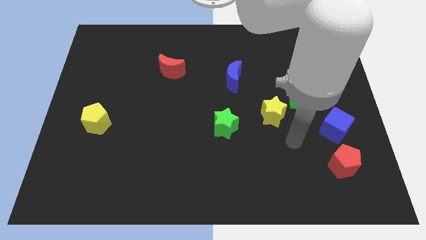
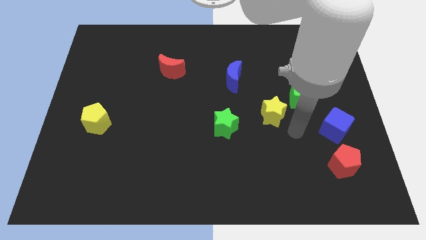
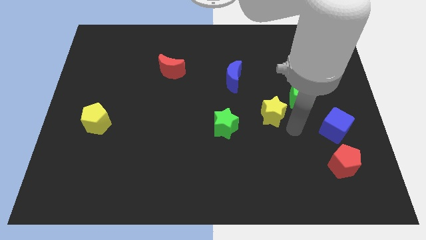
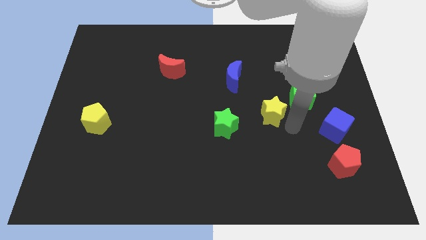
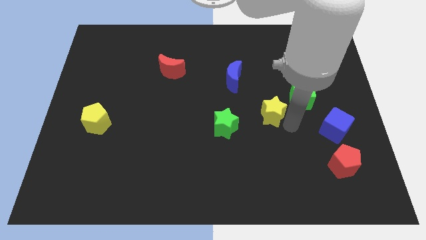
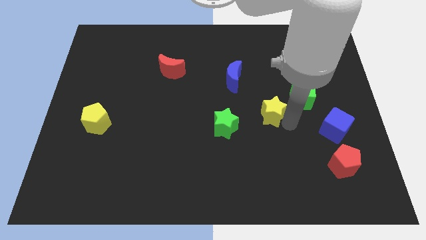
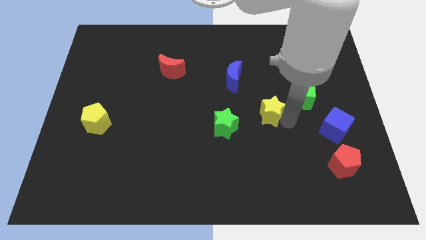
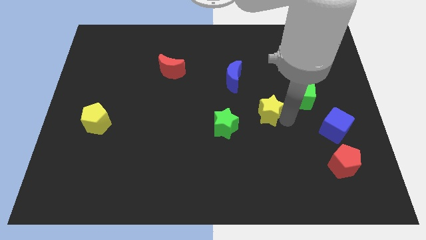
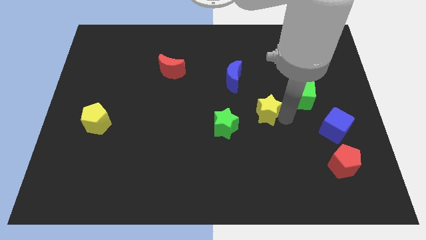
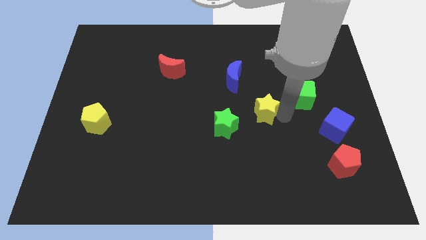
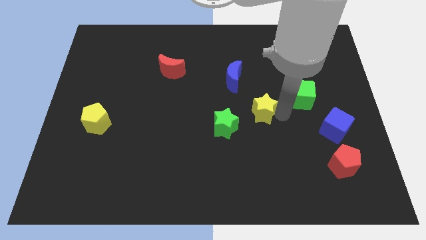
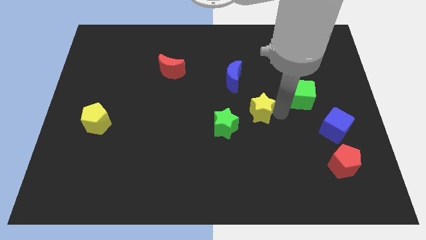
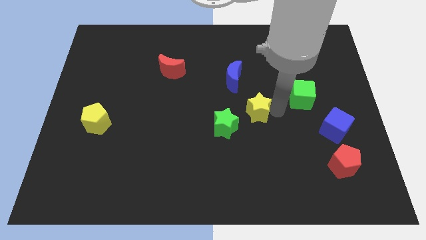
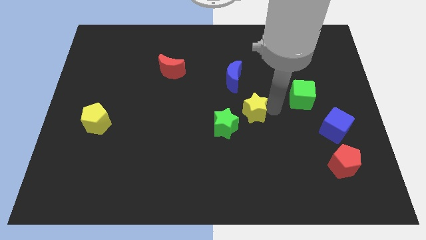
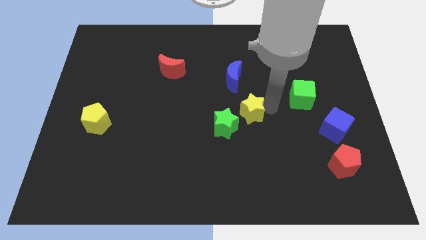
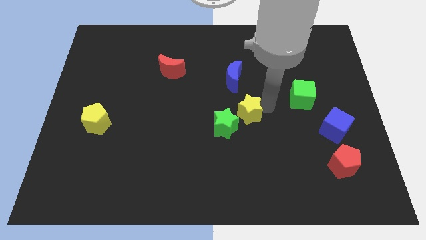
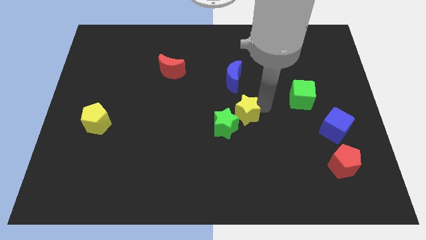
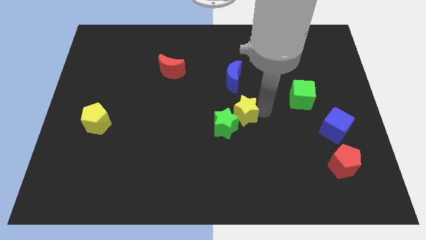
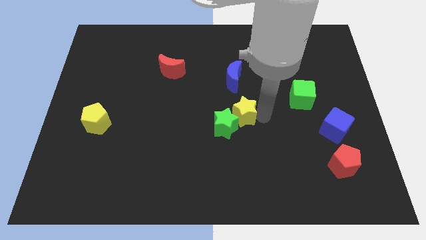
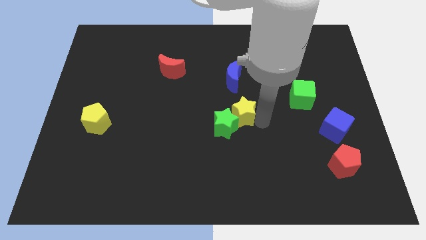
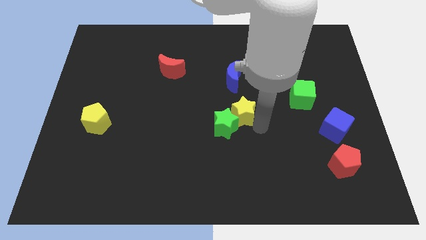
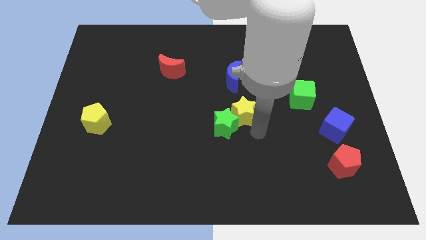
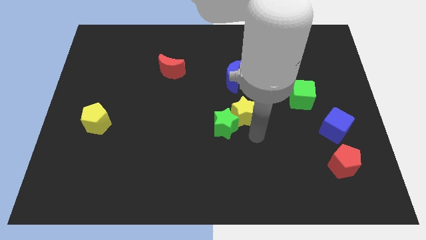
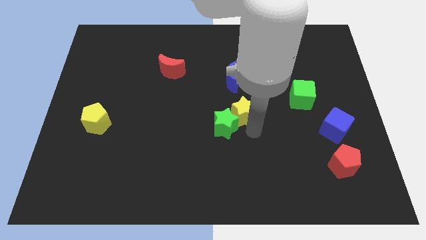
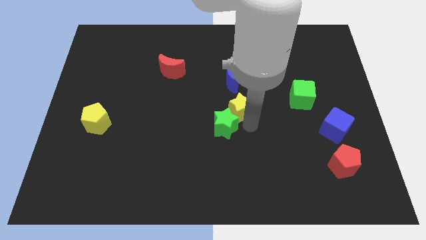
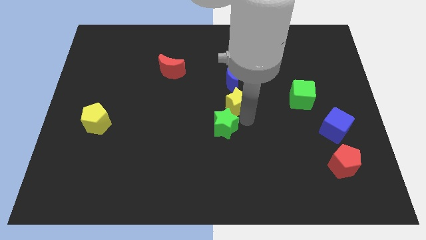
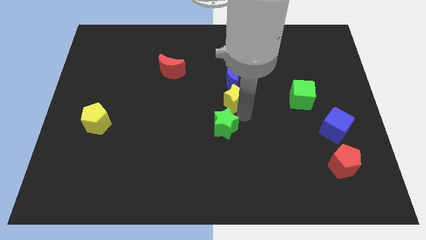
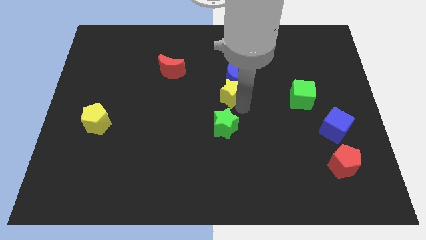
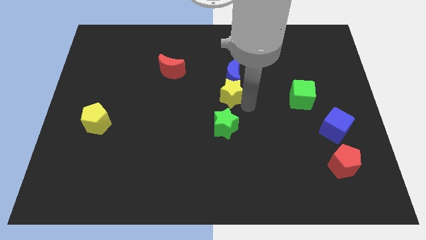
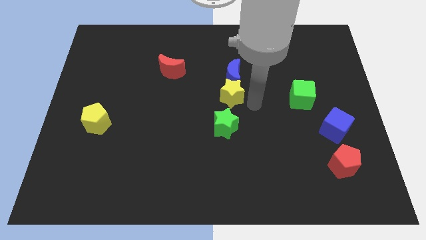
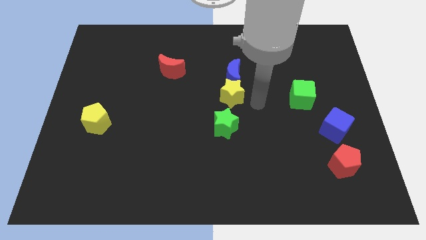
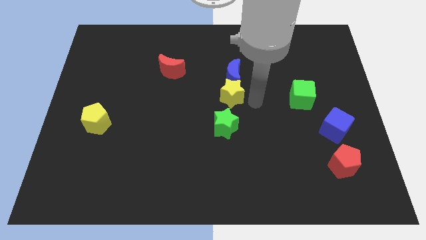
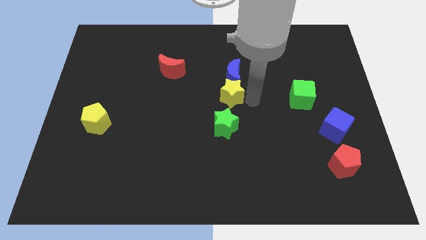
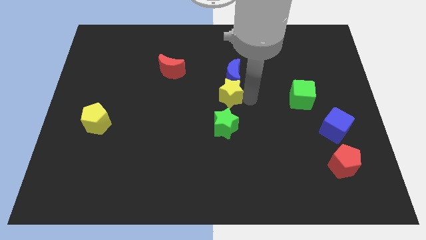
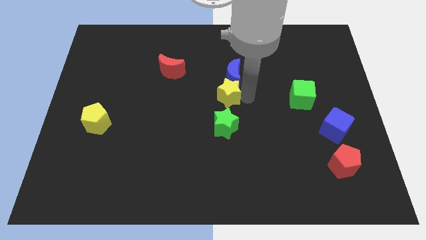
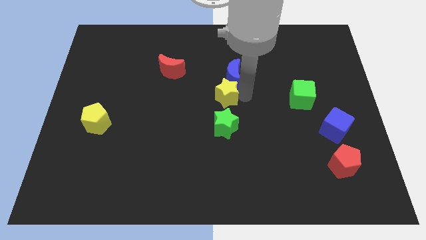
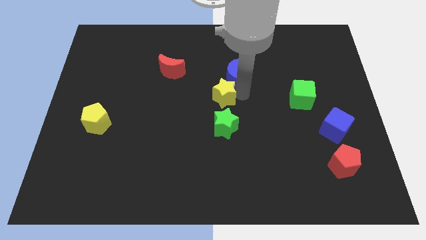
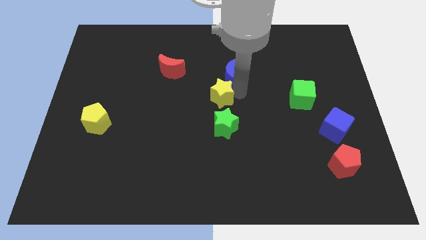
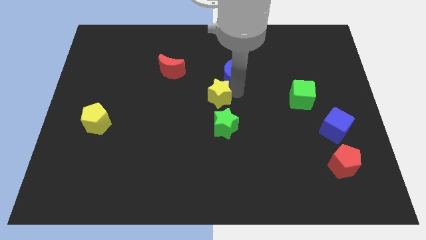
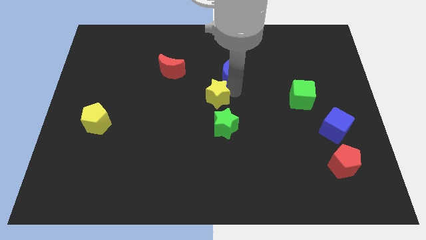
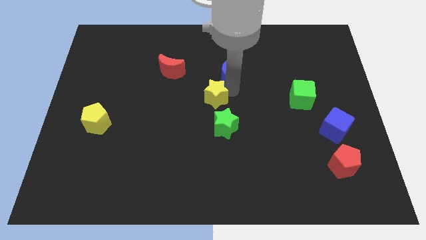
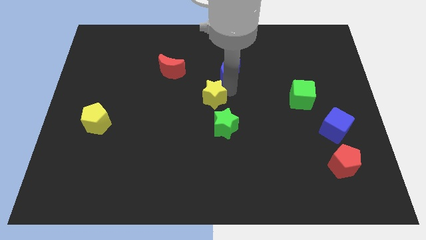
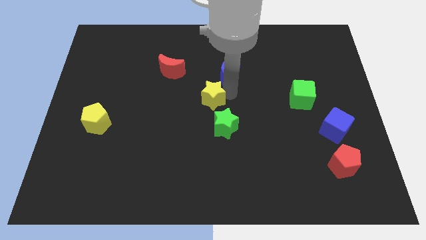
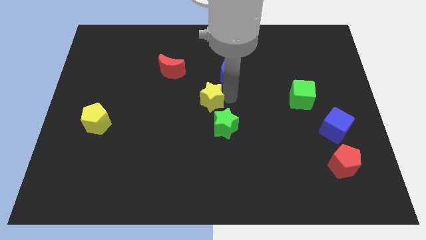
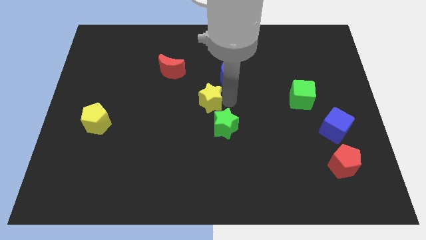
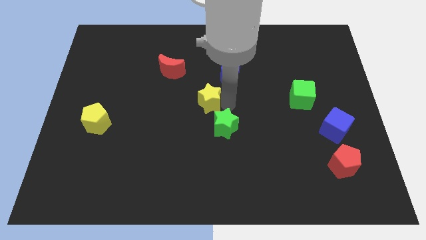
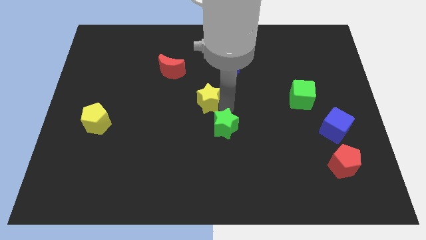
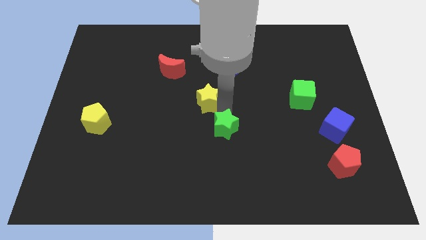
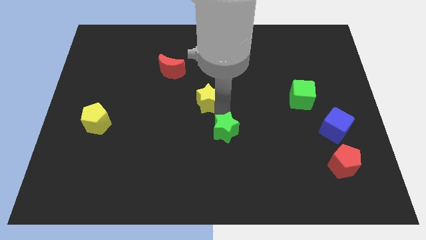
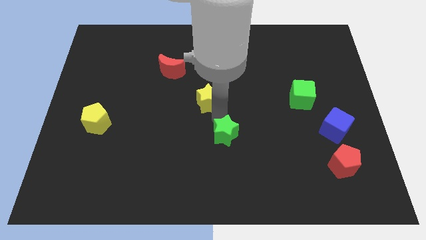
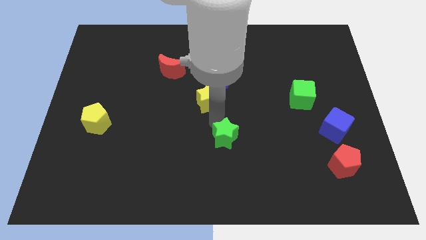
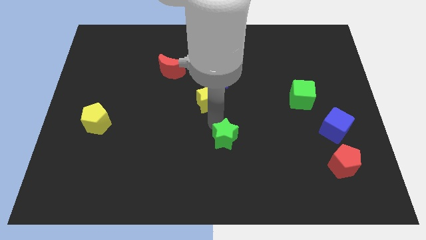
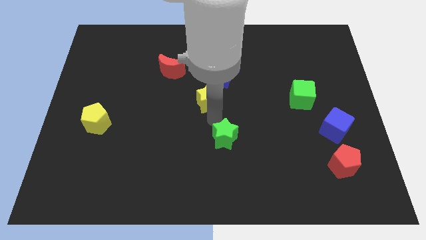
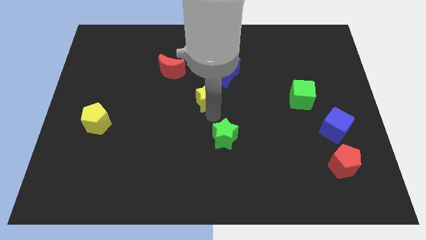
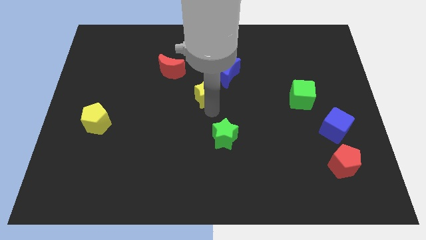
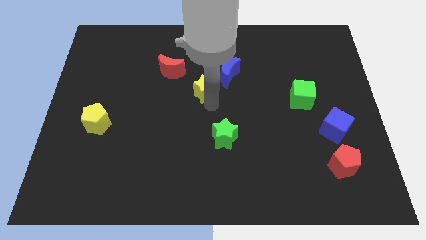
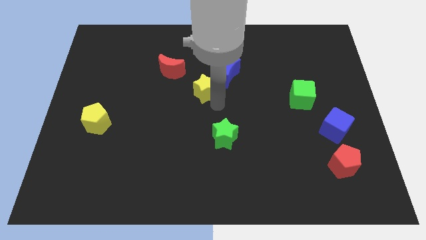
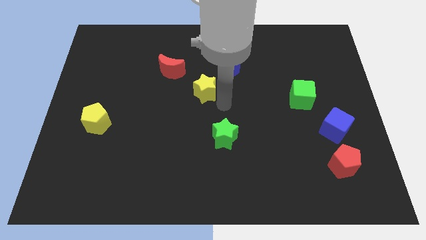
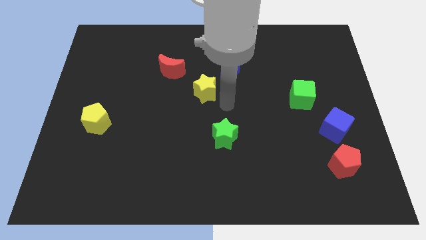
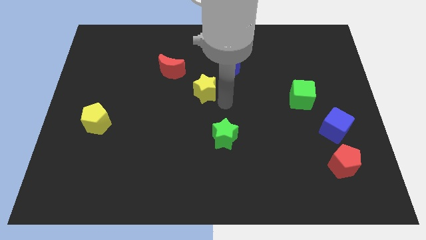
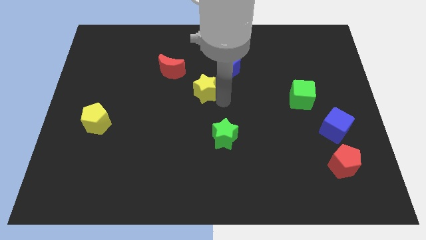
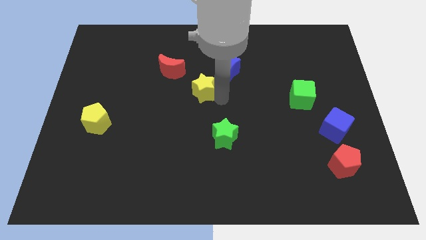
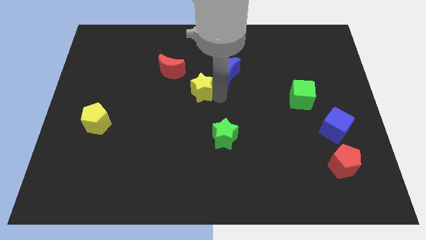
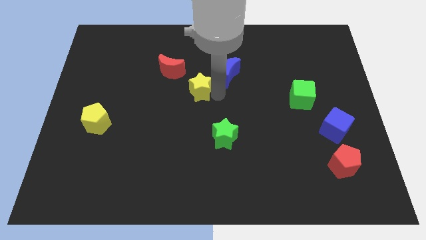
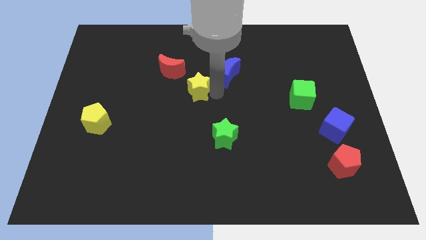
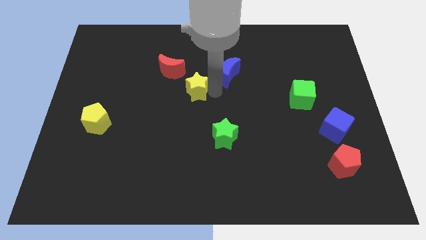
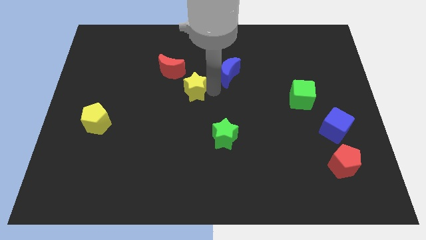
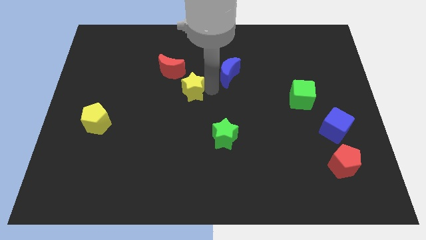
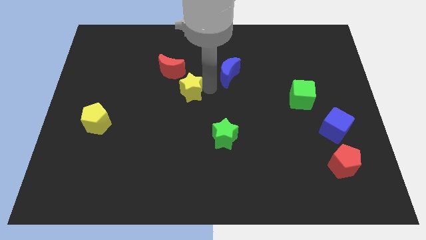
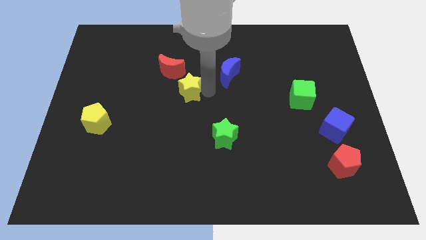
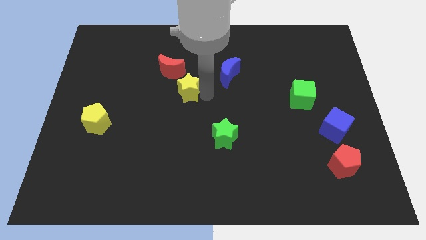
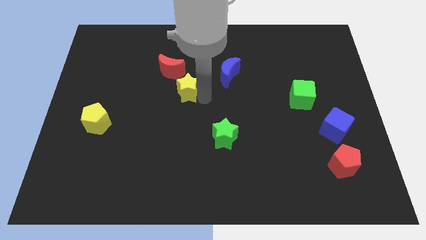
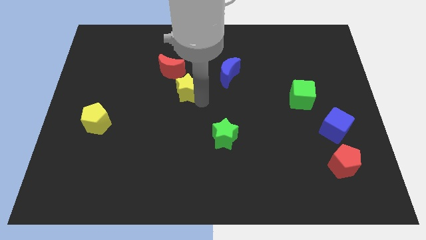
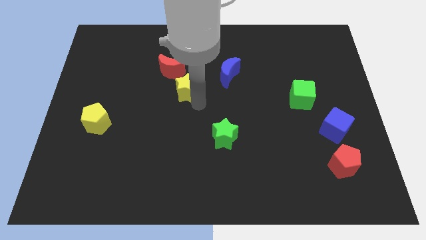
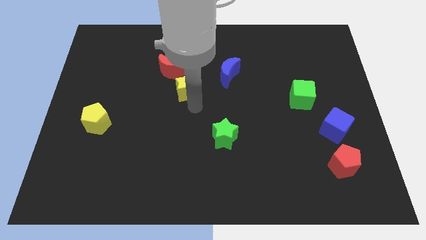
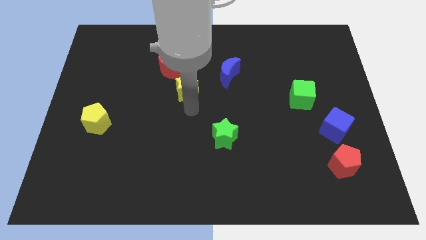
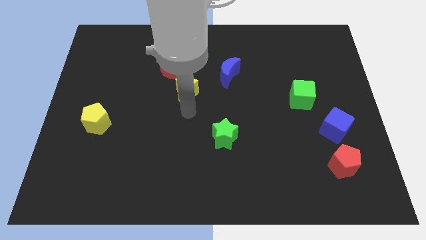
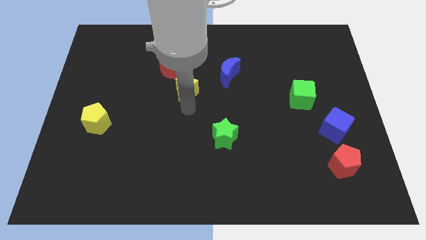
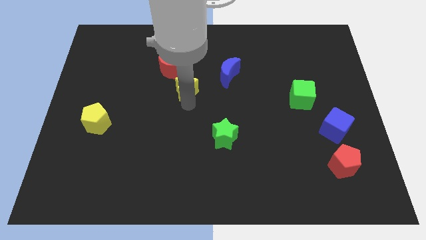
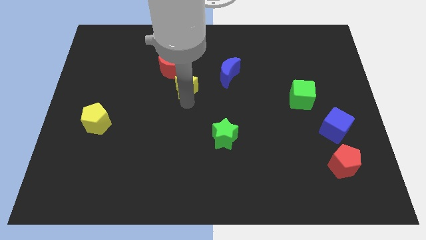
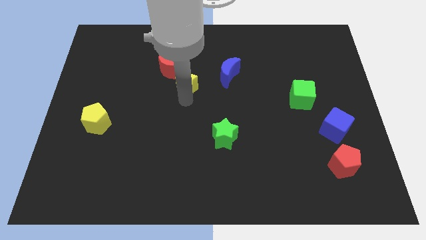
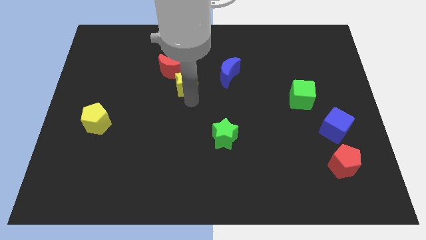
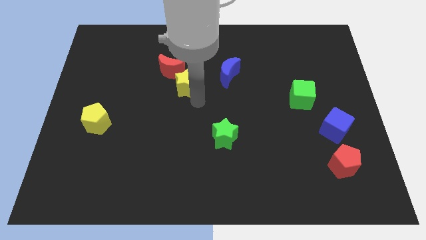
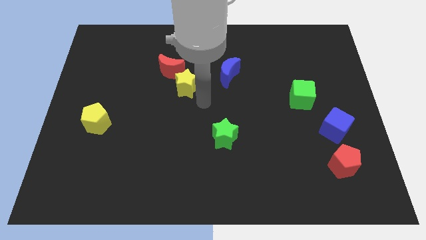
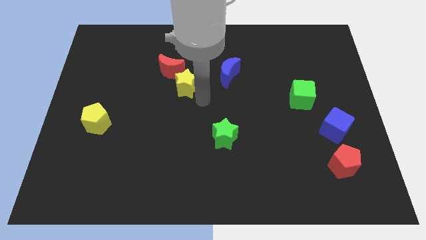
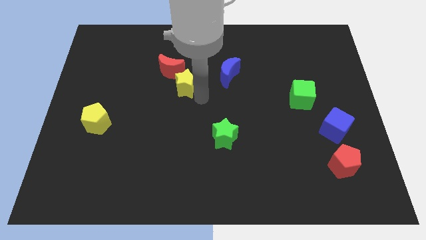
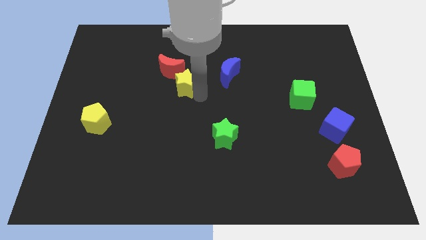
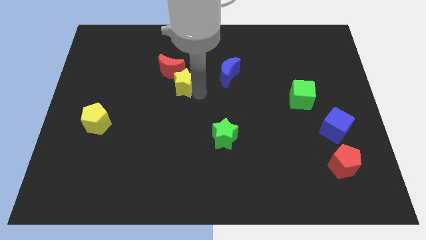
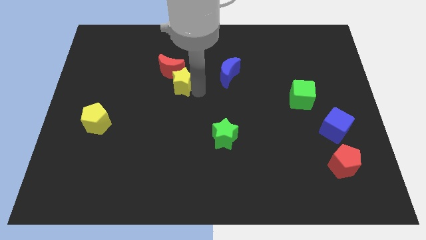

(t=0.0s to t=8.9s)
push the yellow star towards the red moon
